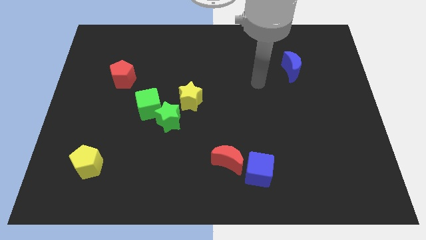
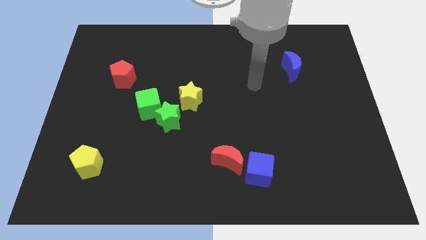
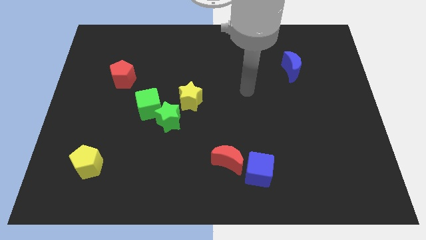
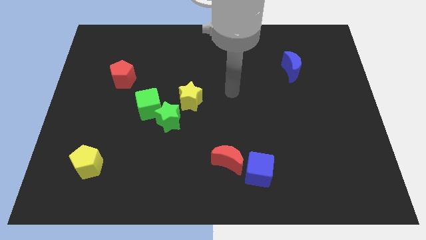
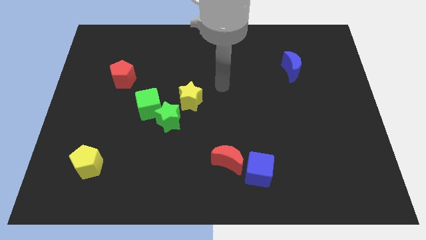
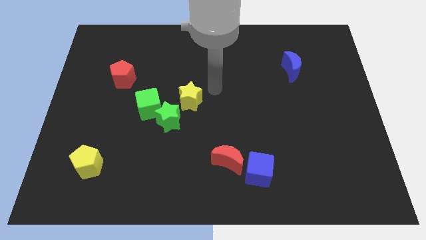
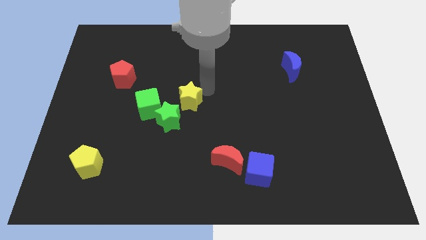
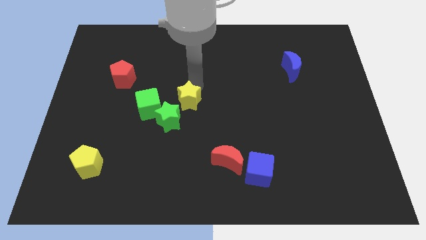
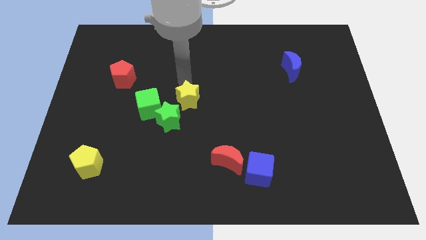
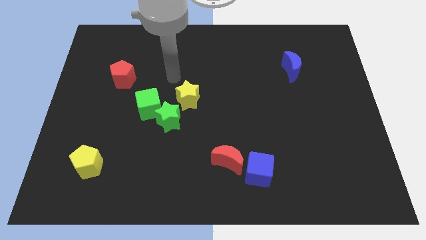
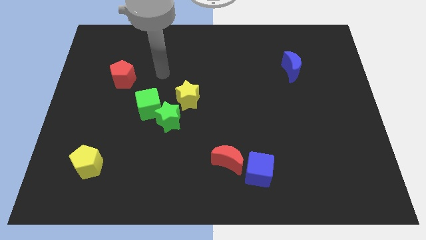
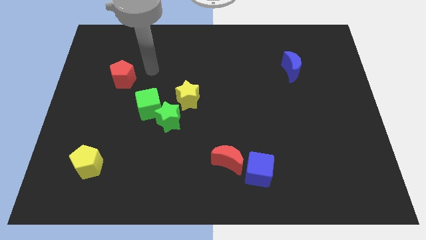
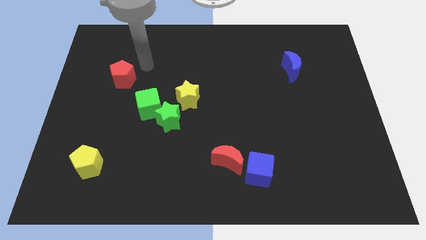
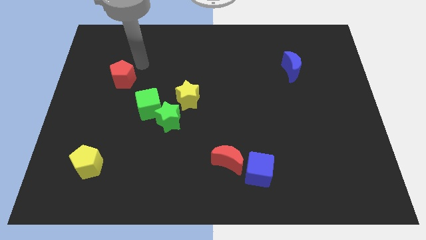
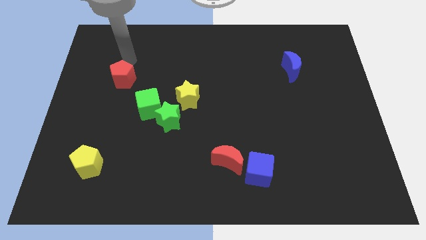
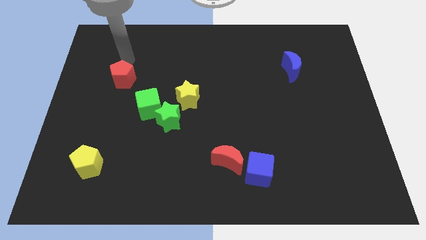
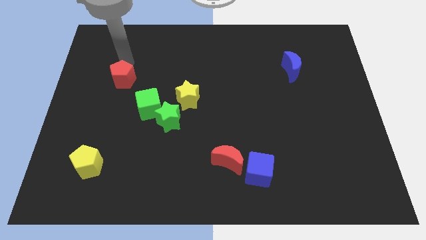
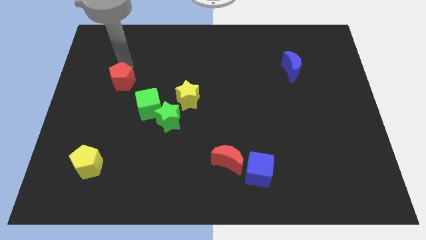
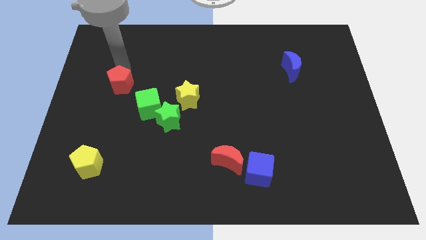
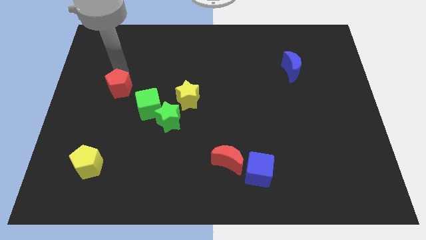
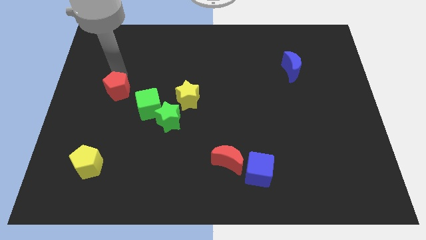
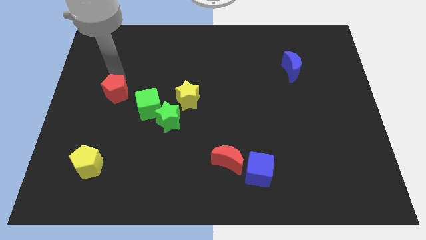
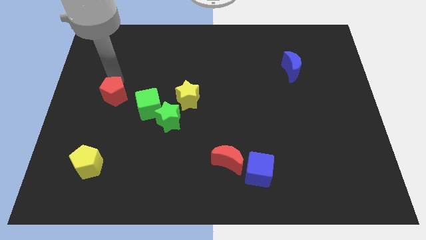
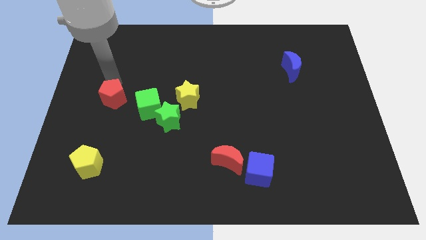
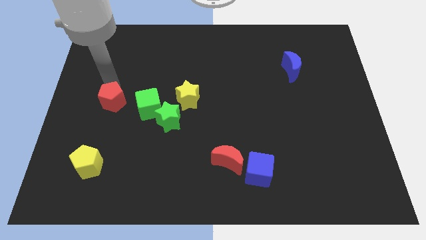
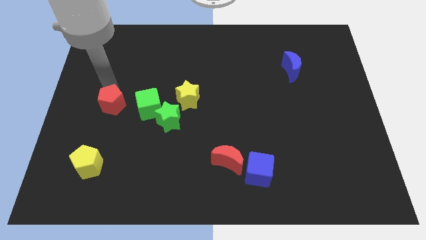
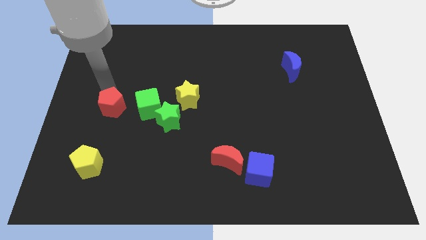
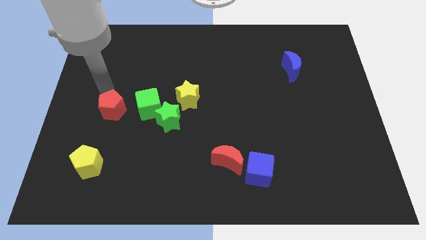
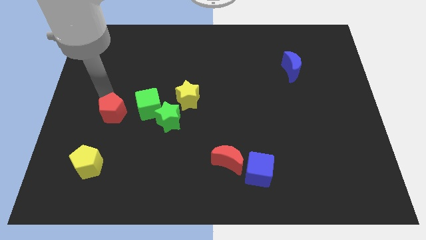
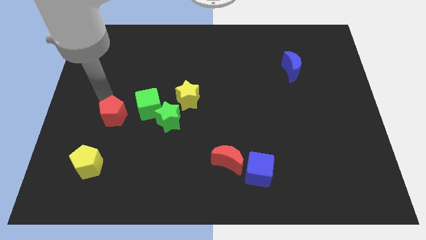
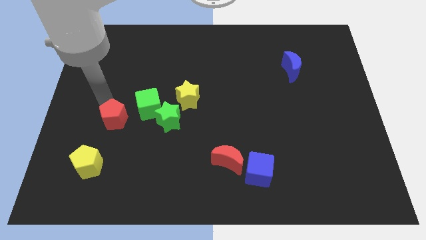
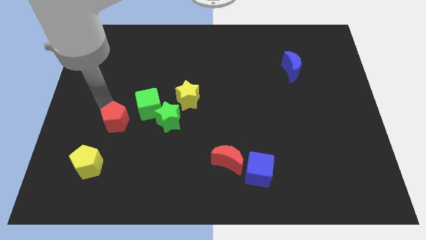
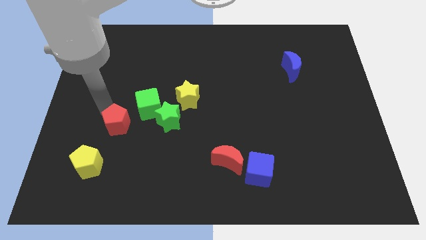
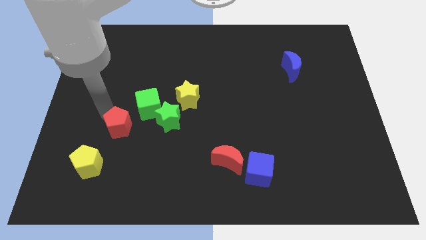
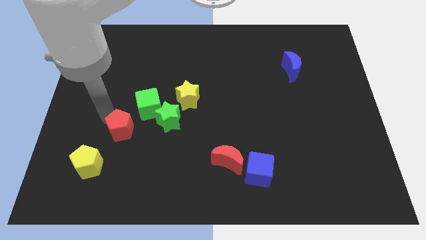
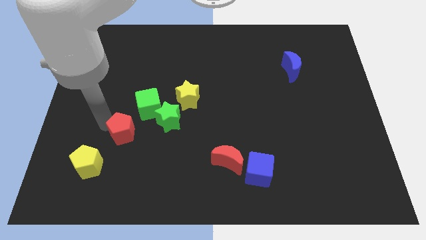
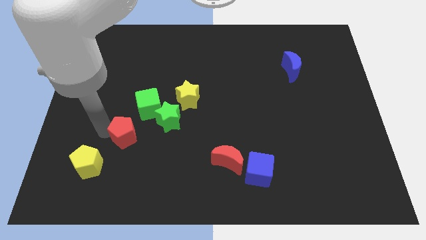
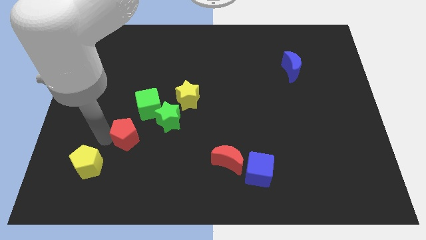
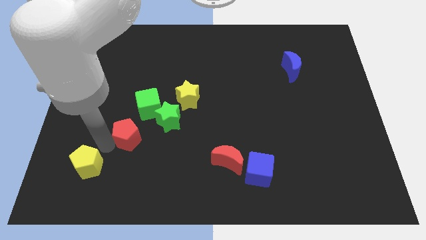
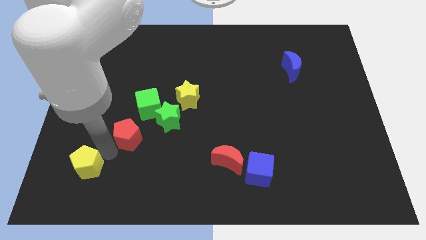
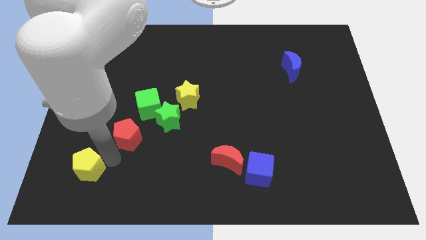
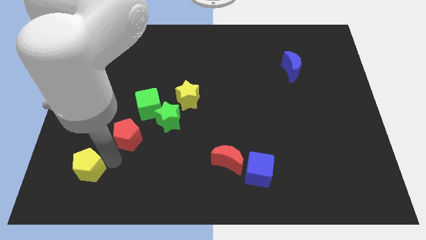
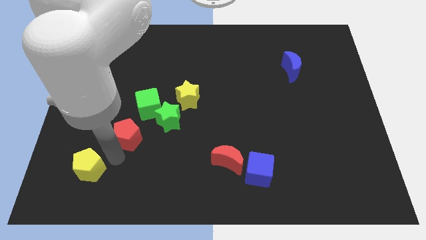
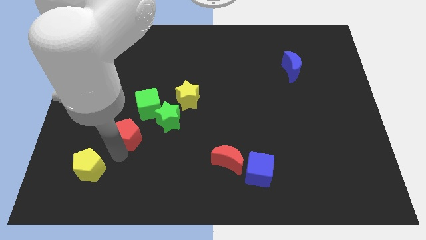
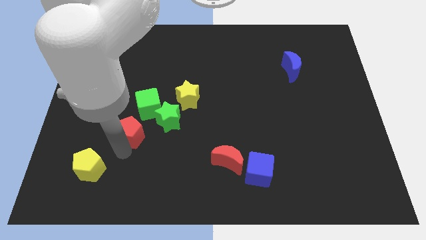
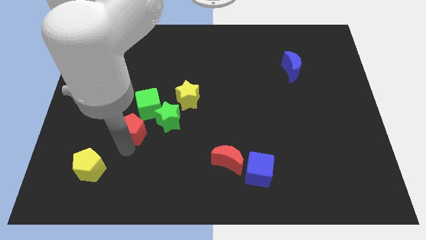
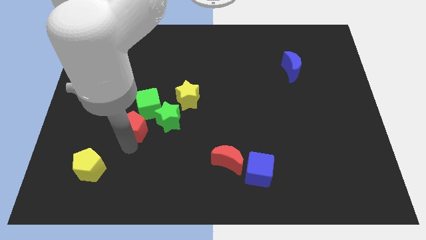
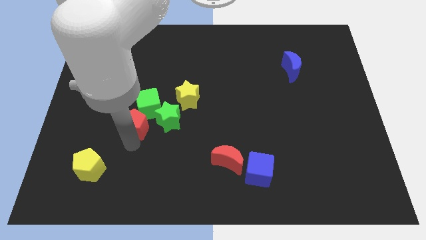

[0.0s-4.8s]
push the red pentagon to the green cube

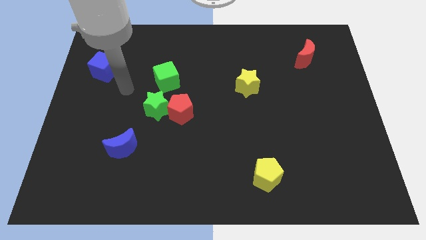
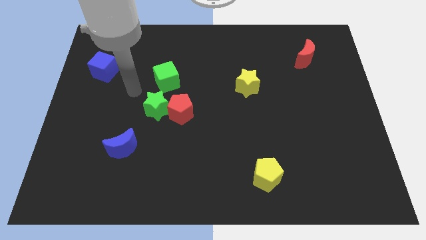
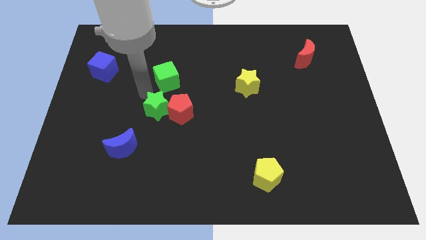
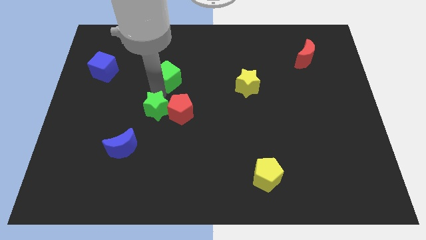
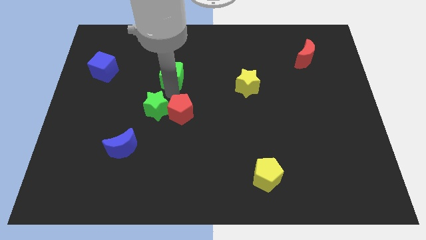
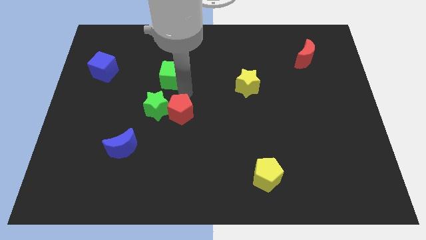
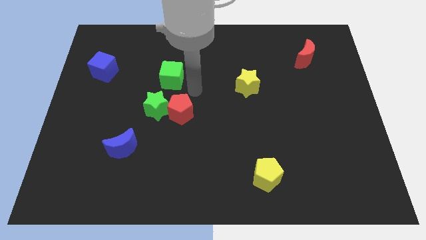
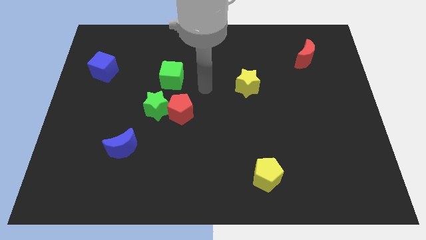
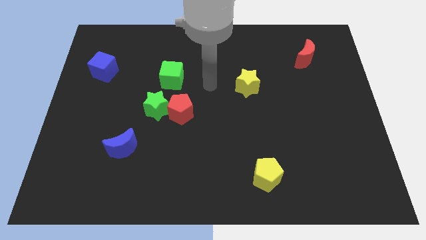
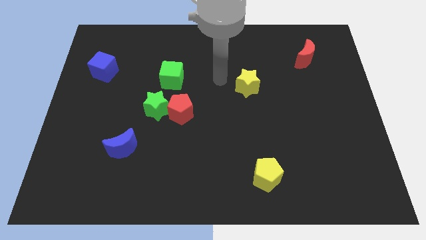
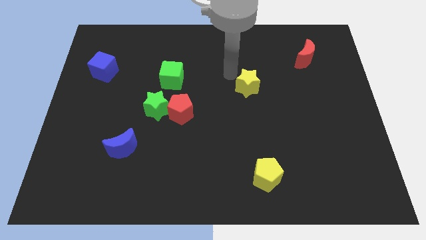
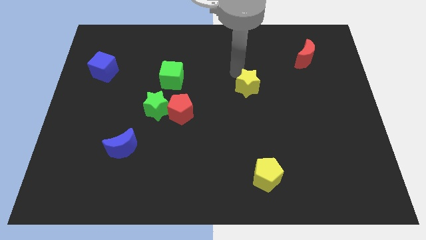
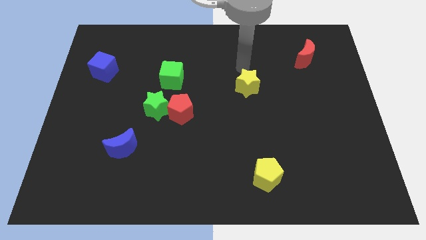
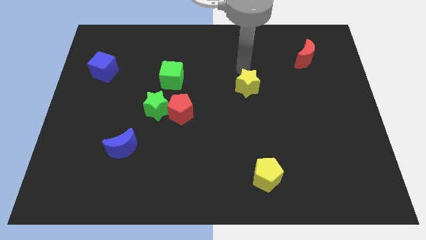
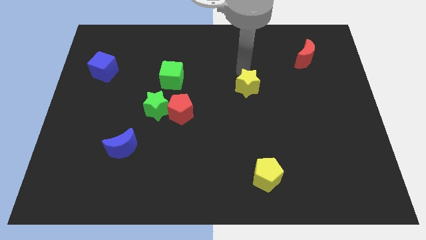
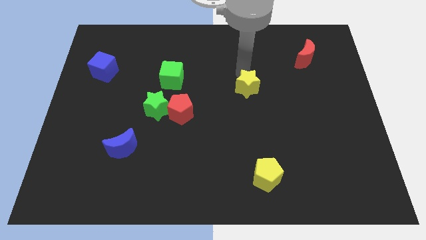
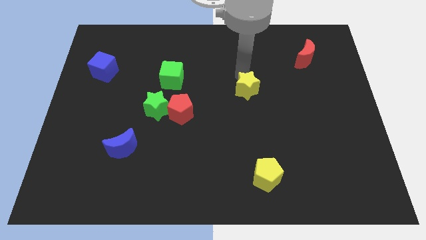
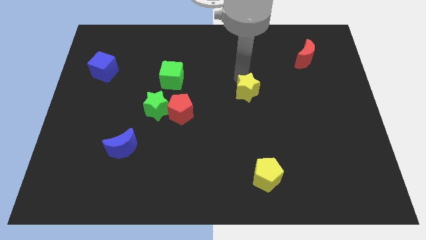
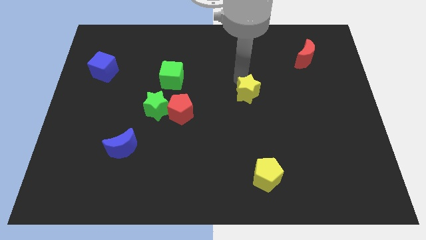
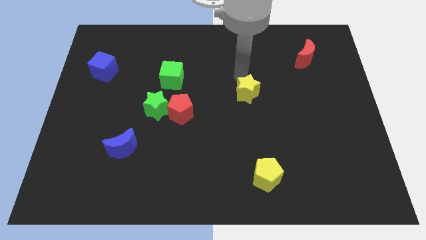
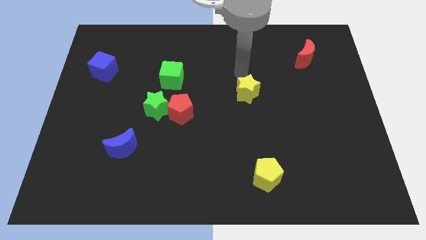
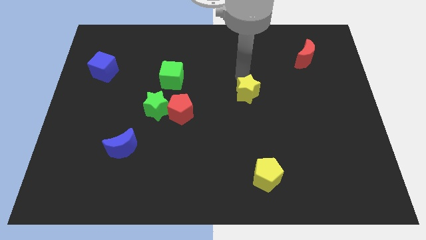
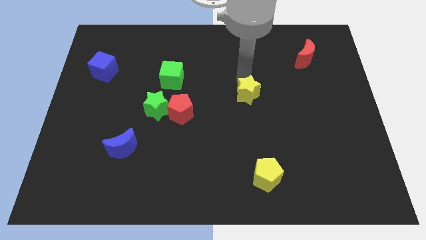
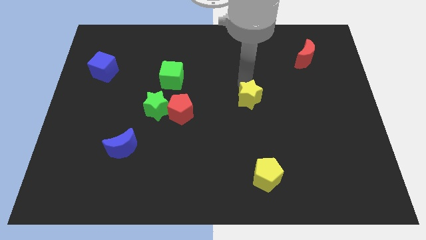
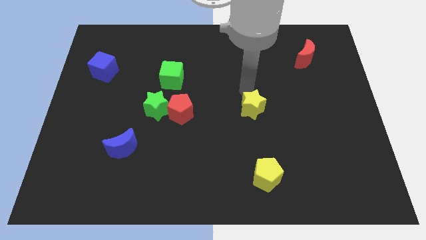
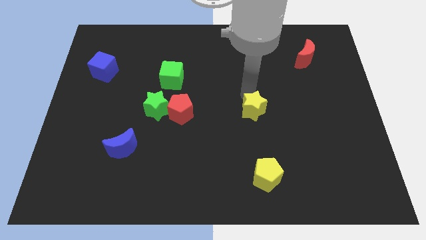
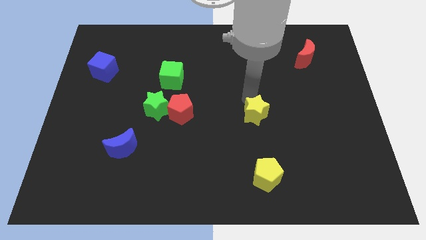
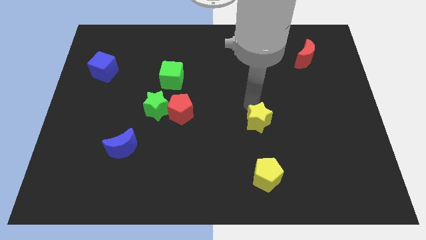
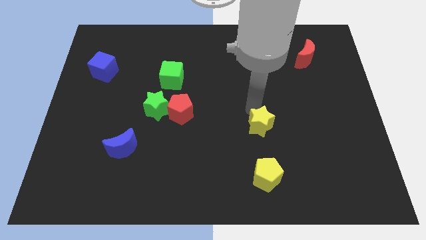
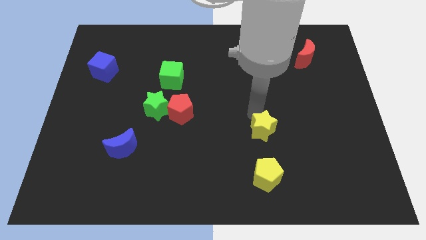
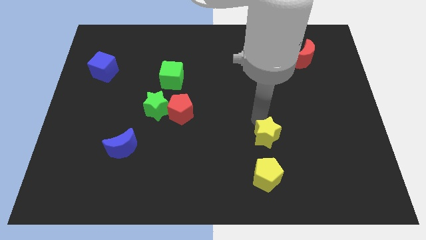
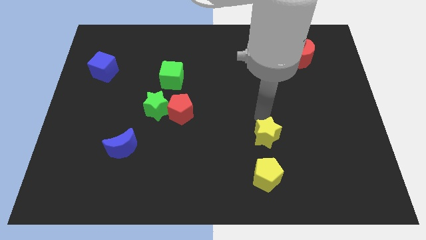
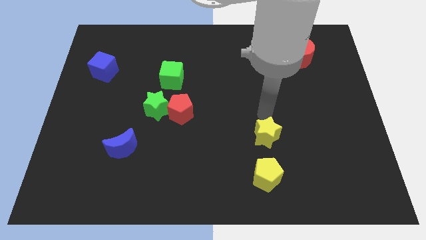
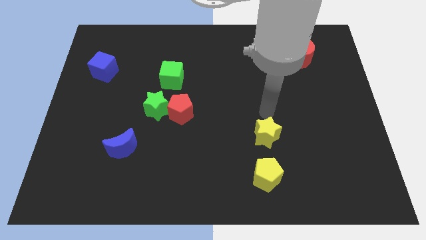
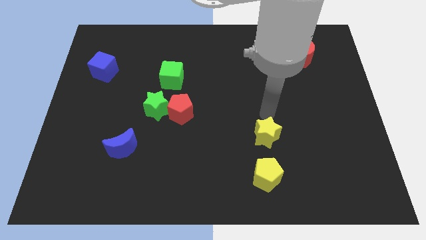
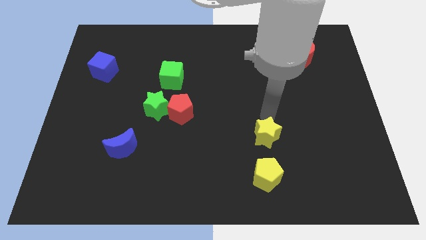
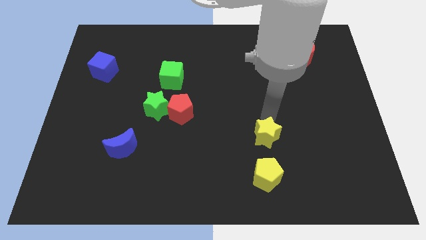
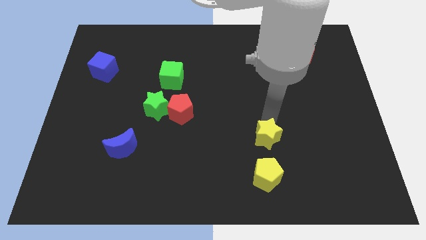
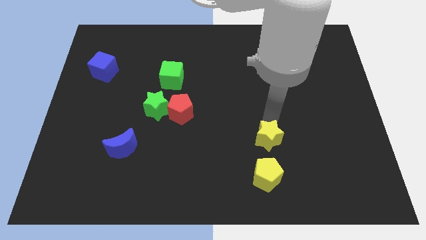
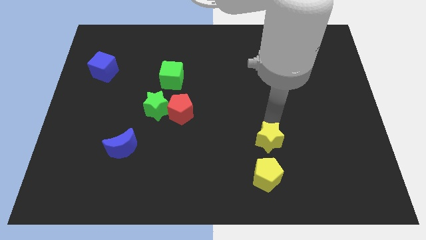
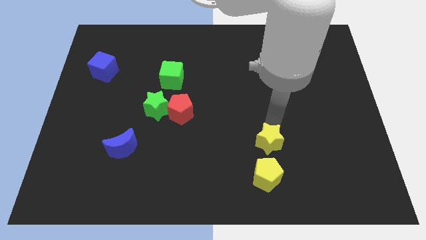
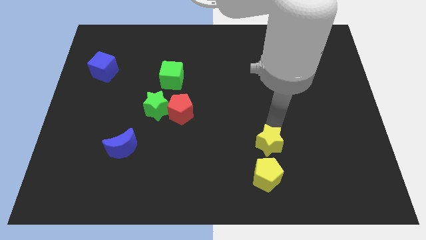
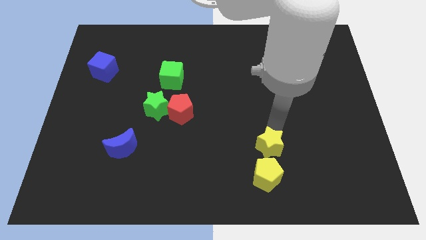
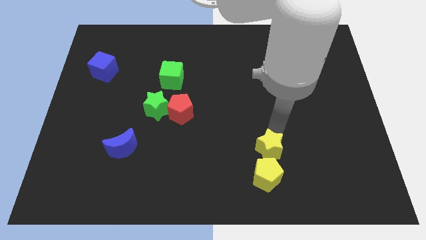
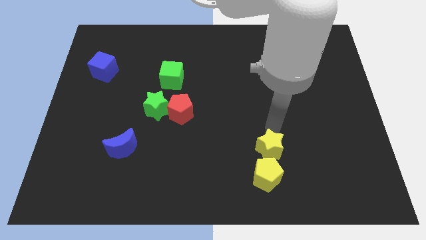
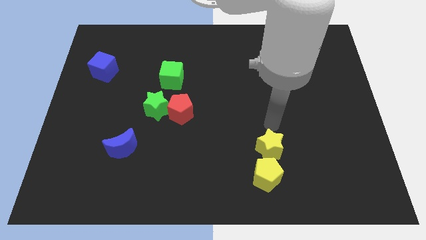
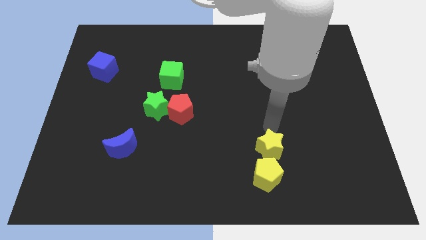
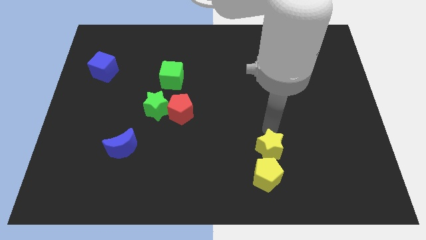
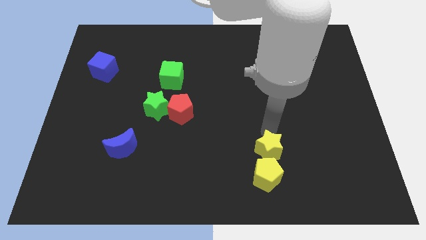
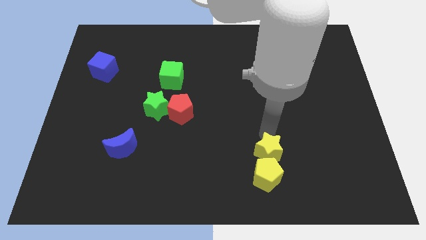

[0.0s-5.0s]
push the yellow star close to the yellow pentagon
